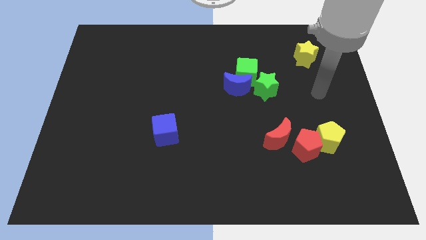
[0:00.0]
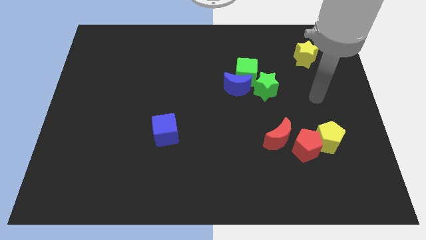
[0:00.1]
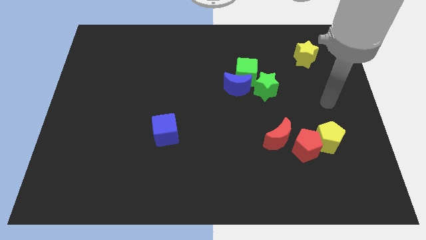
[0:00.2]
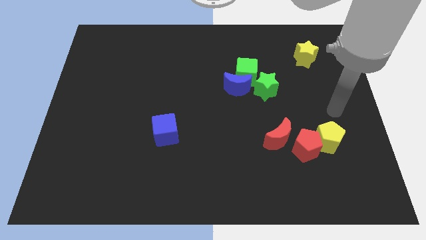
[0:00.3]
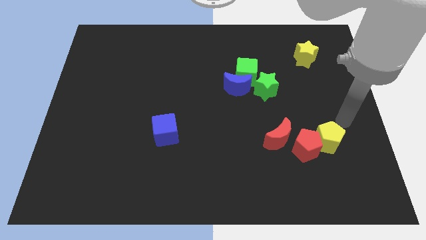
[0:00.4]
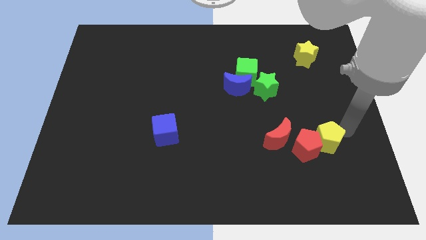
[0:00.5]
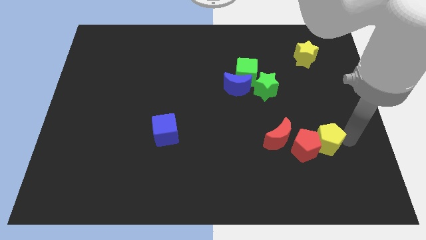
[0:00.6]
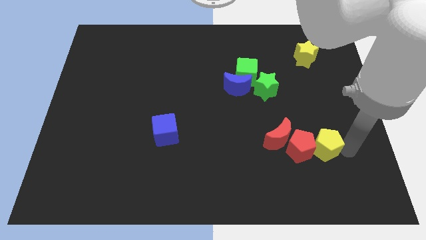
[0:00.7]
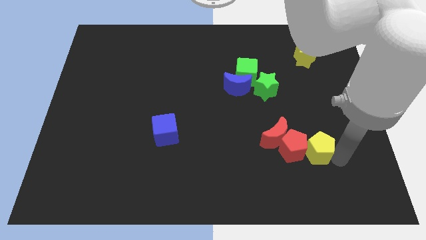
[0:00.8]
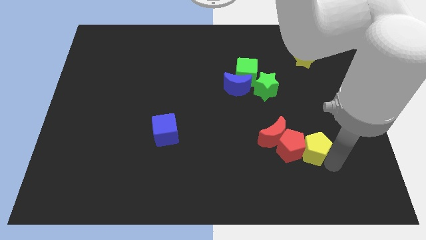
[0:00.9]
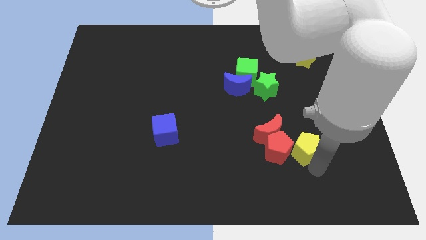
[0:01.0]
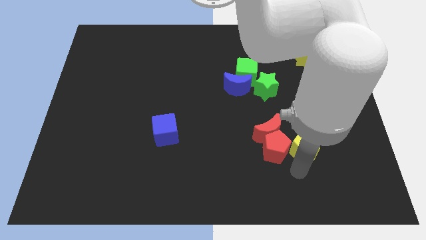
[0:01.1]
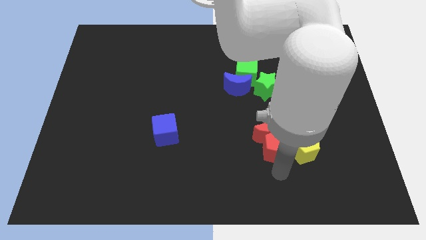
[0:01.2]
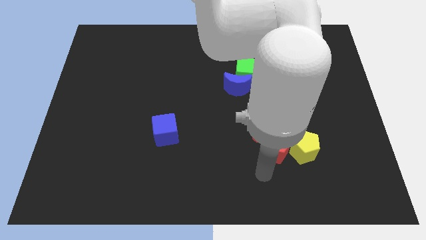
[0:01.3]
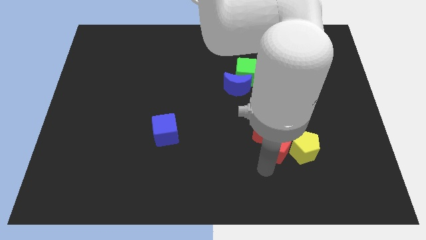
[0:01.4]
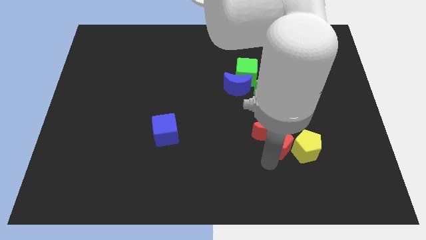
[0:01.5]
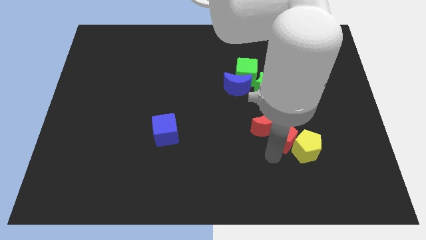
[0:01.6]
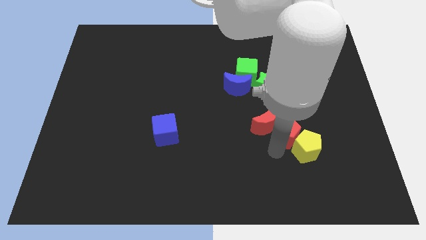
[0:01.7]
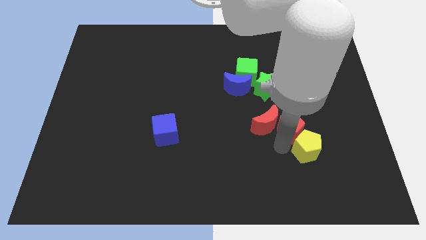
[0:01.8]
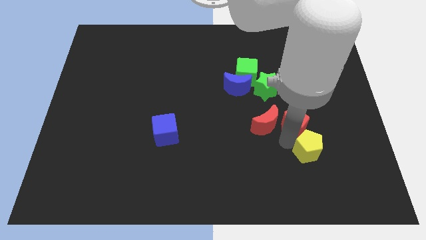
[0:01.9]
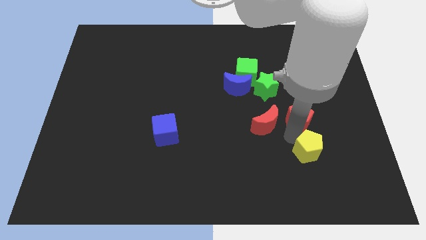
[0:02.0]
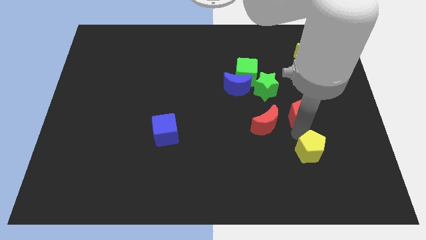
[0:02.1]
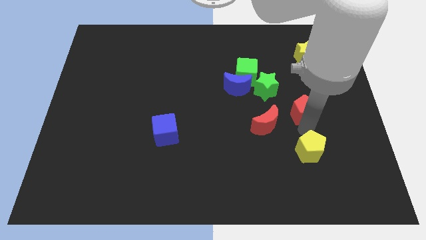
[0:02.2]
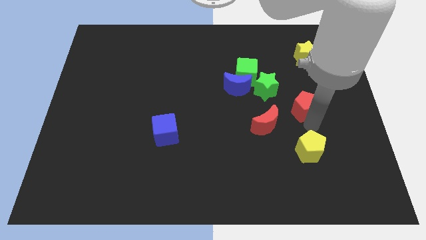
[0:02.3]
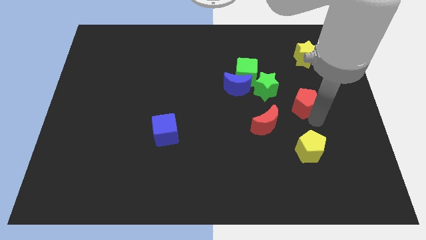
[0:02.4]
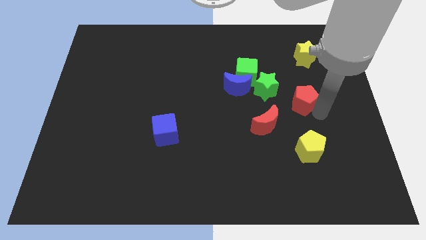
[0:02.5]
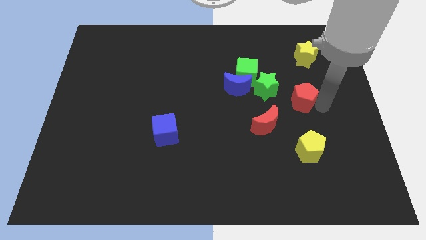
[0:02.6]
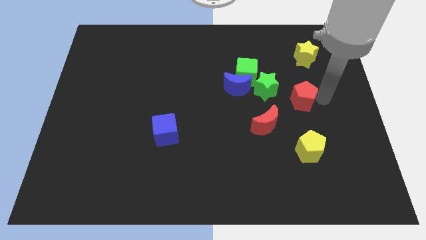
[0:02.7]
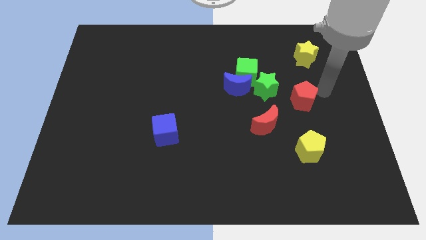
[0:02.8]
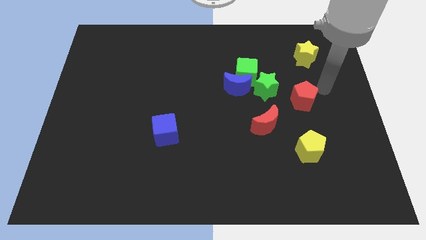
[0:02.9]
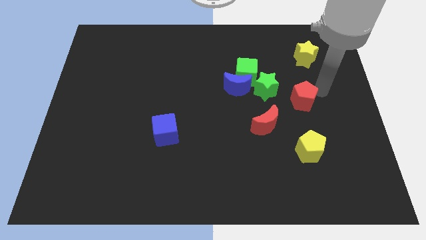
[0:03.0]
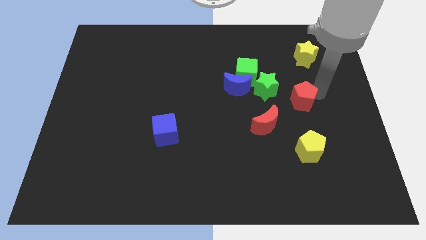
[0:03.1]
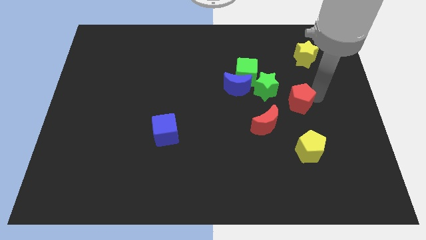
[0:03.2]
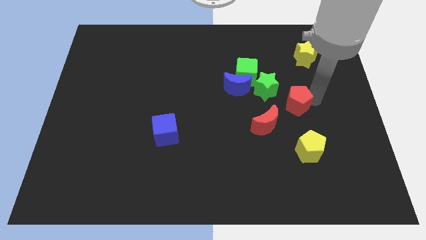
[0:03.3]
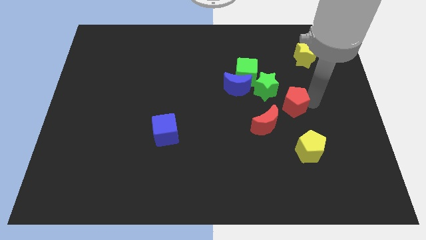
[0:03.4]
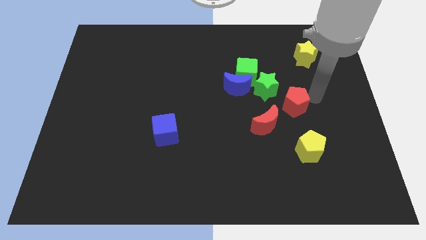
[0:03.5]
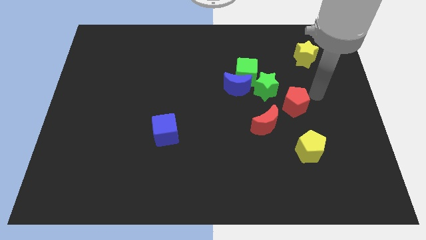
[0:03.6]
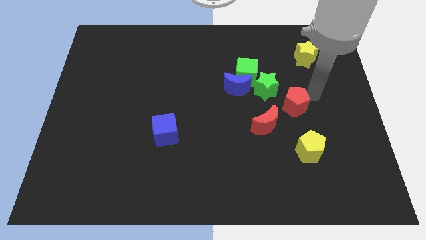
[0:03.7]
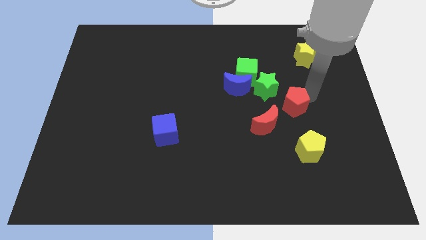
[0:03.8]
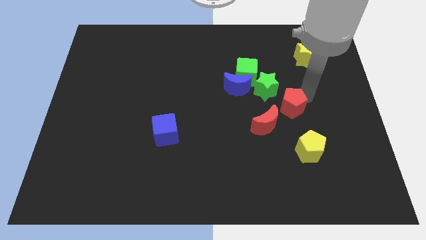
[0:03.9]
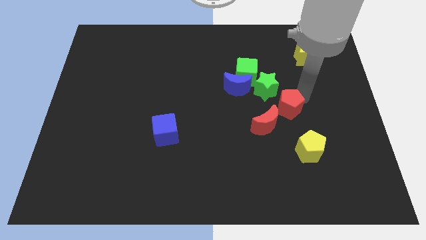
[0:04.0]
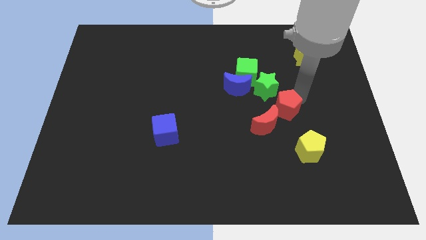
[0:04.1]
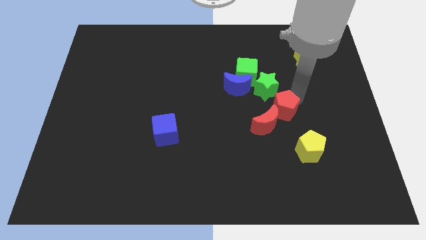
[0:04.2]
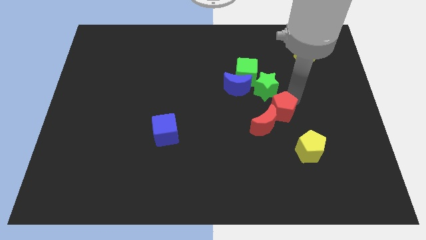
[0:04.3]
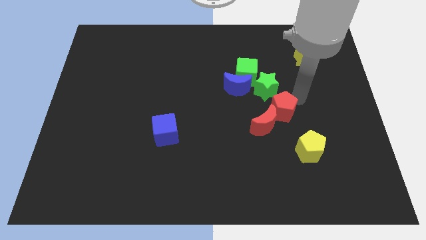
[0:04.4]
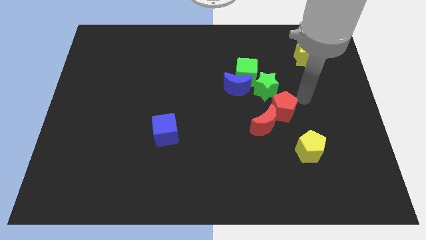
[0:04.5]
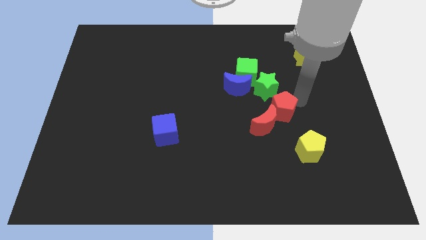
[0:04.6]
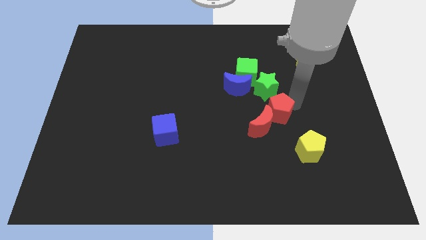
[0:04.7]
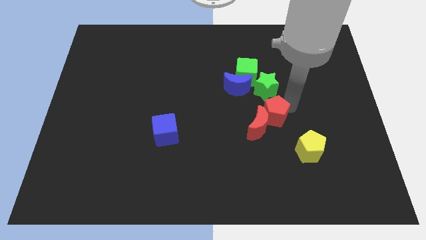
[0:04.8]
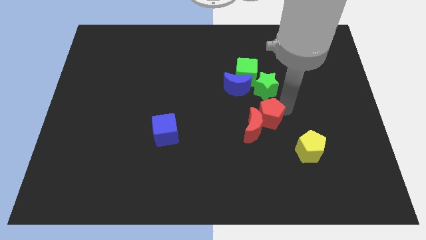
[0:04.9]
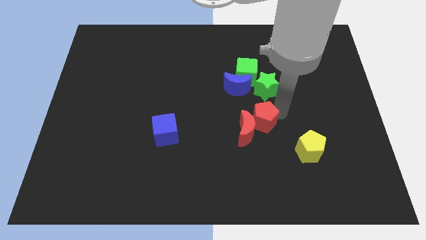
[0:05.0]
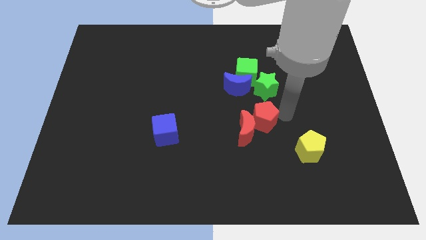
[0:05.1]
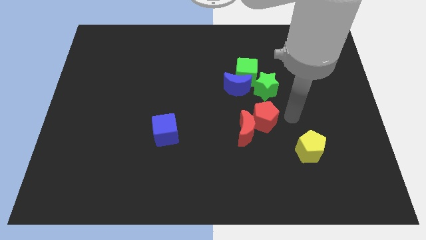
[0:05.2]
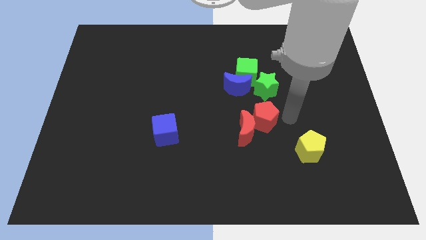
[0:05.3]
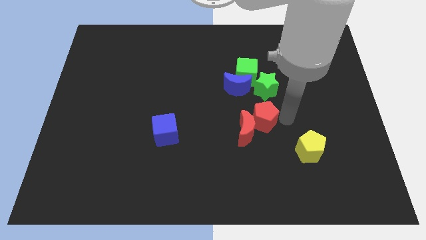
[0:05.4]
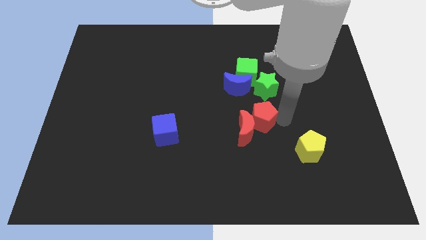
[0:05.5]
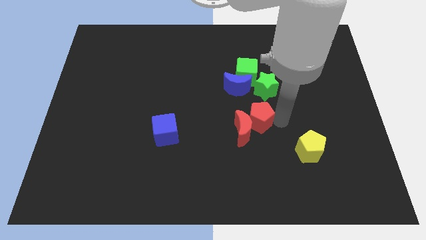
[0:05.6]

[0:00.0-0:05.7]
put the red pentagon to the bottom of the blue moon

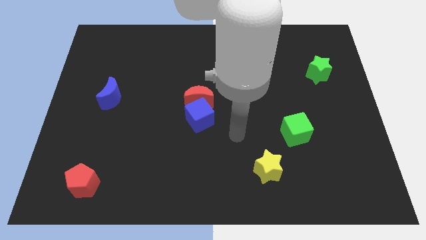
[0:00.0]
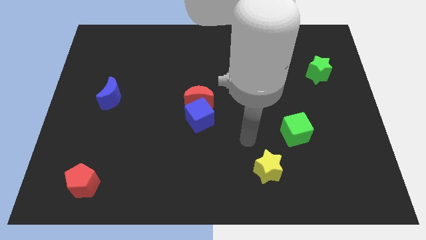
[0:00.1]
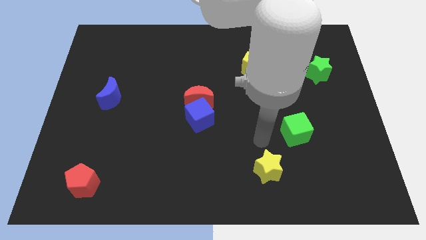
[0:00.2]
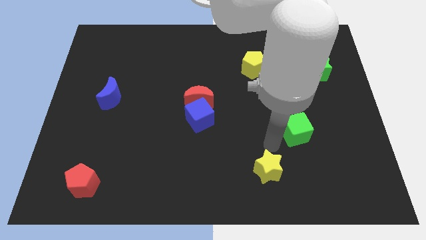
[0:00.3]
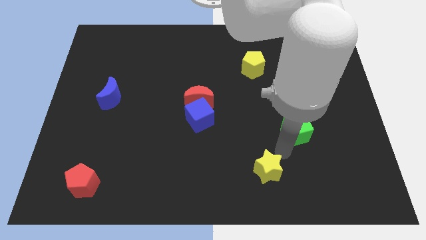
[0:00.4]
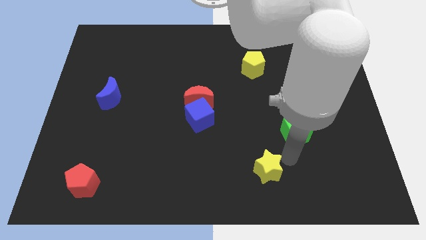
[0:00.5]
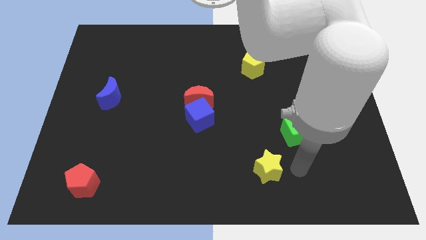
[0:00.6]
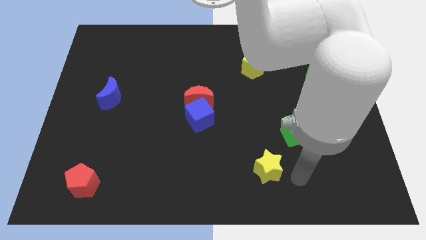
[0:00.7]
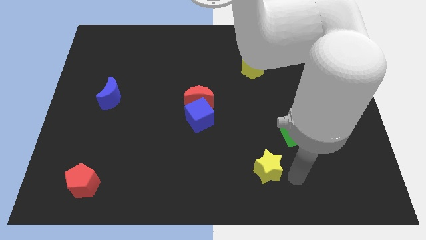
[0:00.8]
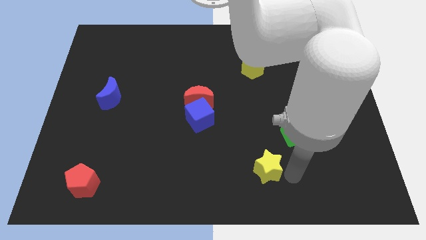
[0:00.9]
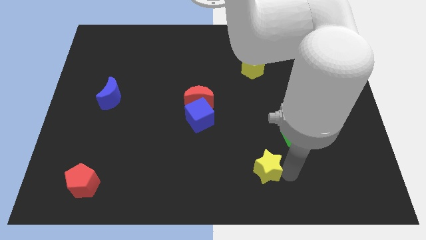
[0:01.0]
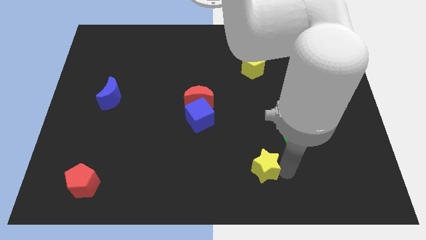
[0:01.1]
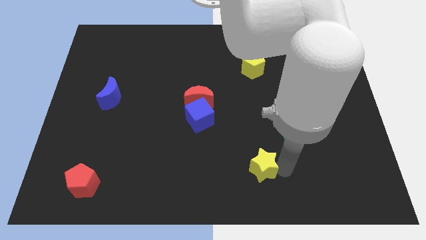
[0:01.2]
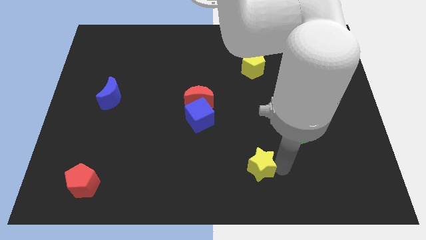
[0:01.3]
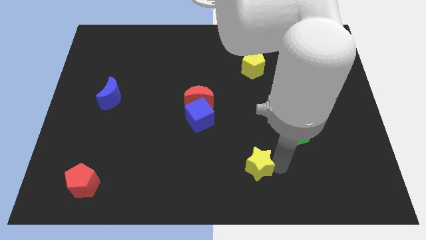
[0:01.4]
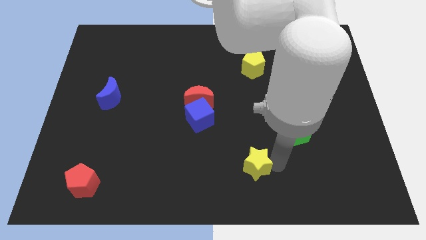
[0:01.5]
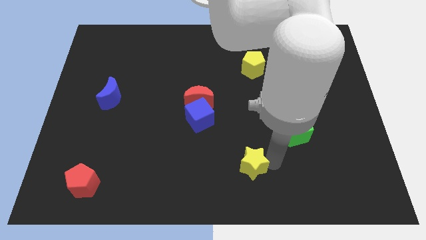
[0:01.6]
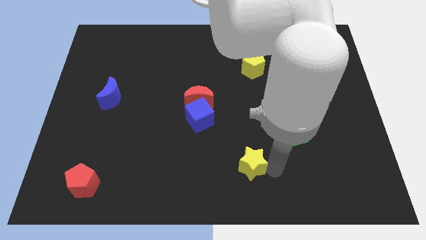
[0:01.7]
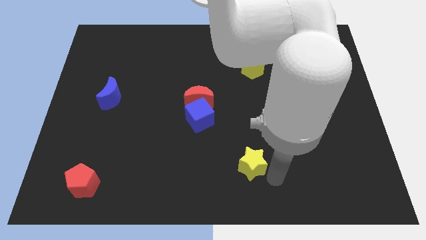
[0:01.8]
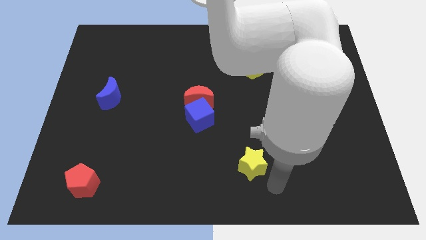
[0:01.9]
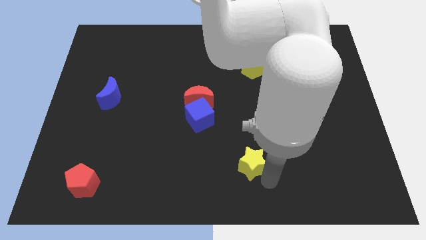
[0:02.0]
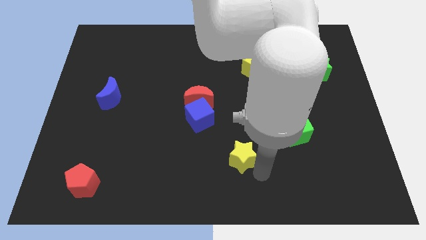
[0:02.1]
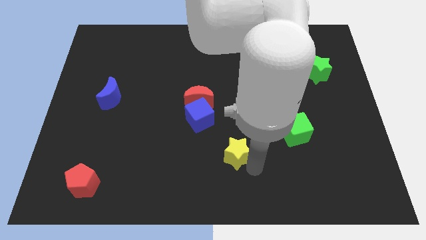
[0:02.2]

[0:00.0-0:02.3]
put the yellow star to the bottom right of the blue cube
